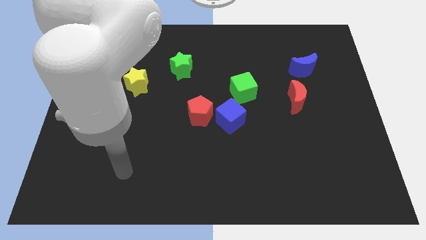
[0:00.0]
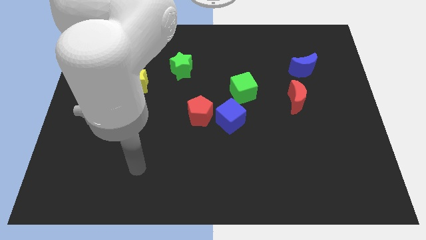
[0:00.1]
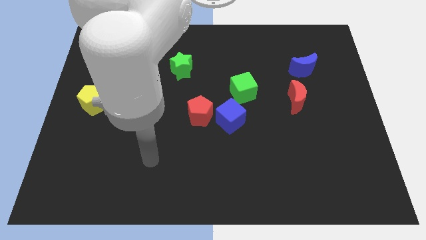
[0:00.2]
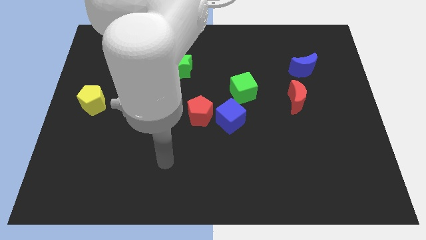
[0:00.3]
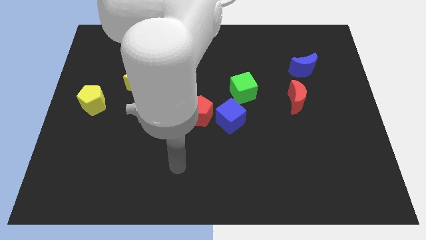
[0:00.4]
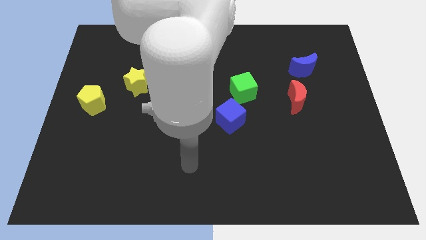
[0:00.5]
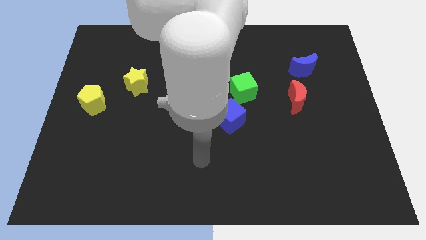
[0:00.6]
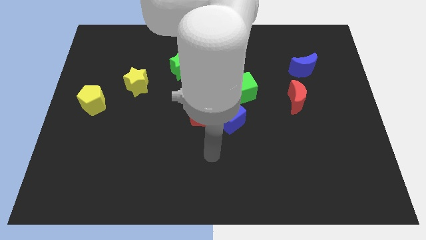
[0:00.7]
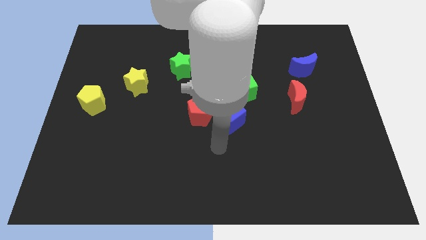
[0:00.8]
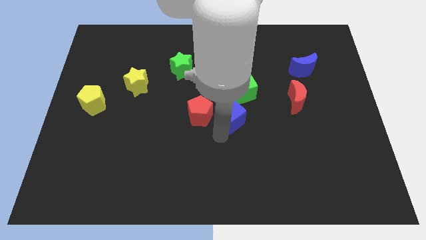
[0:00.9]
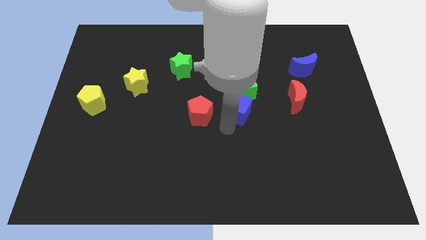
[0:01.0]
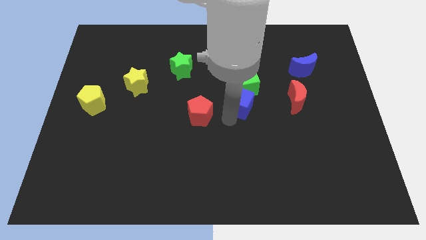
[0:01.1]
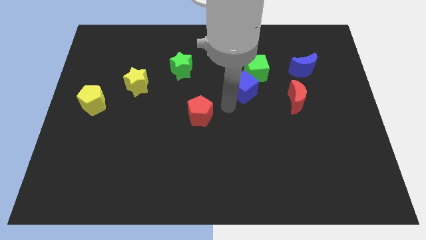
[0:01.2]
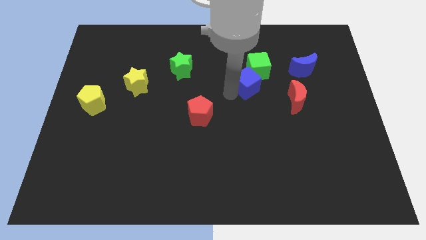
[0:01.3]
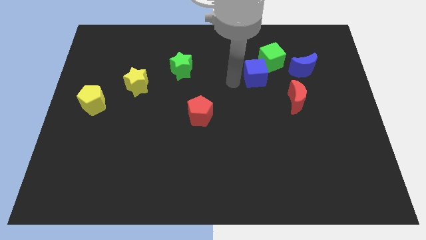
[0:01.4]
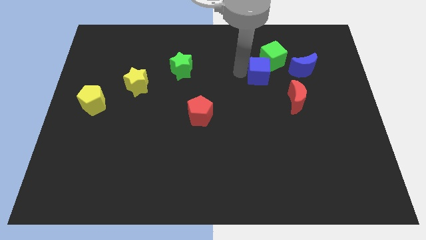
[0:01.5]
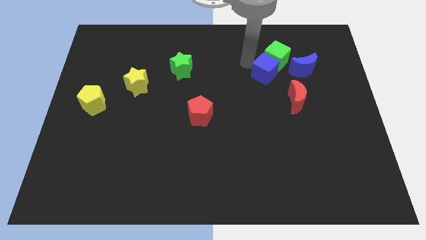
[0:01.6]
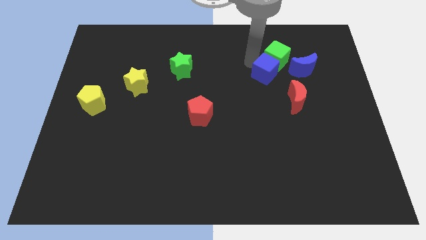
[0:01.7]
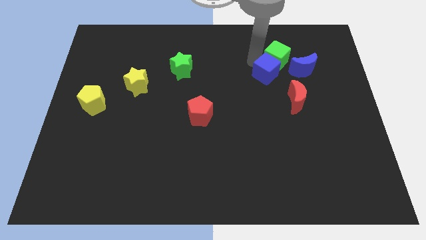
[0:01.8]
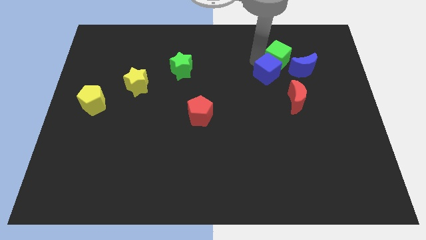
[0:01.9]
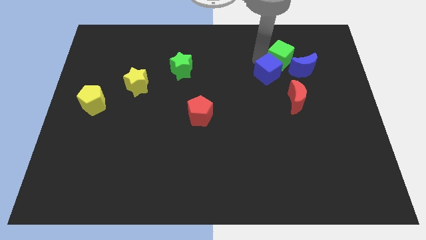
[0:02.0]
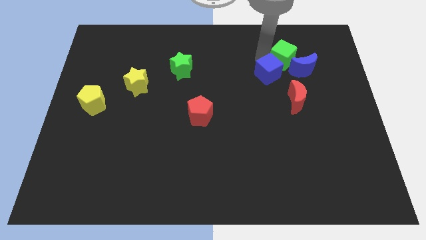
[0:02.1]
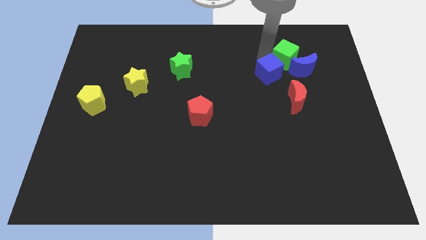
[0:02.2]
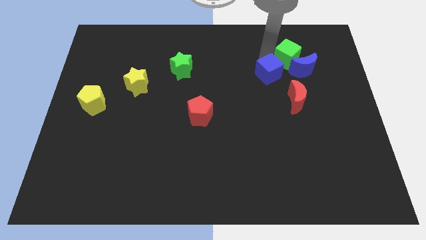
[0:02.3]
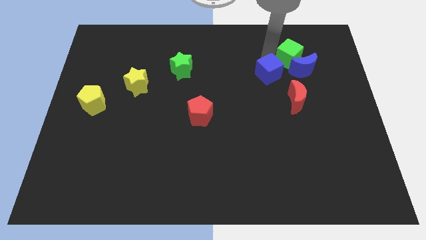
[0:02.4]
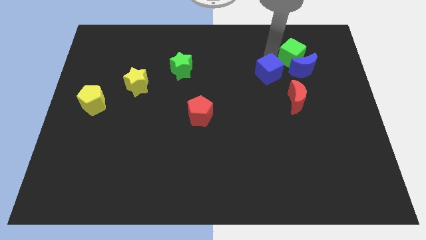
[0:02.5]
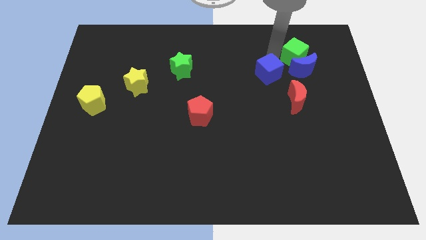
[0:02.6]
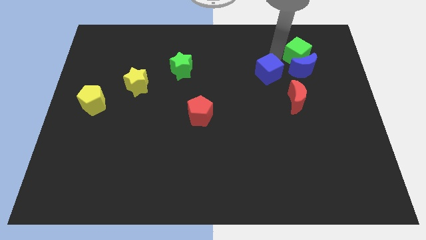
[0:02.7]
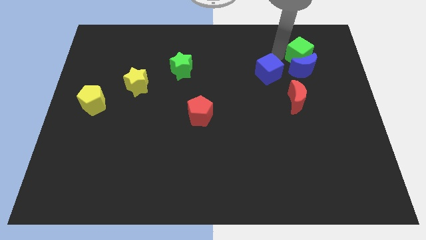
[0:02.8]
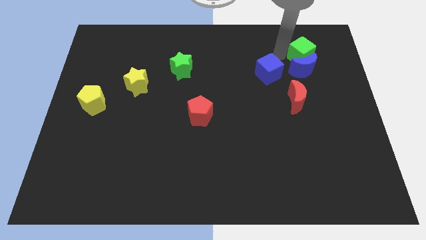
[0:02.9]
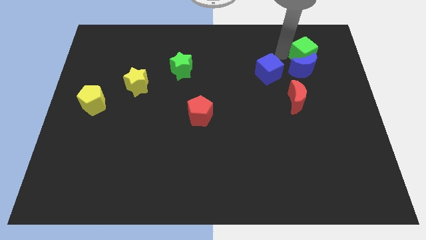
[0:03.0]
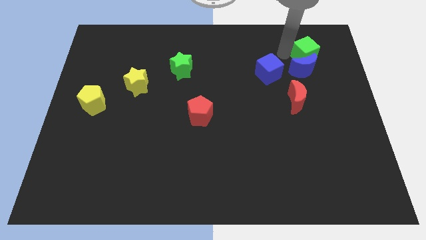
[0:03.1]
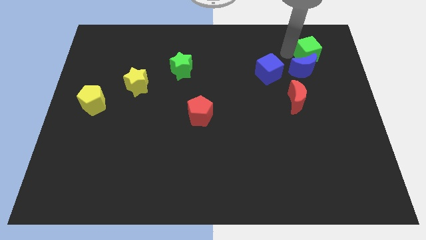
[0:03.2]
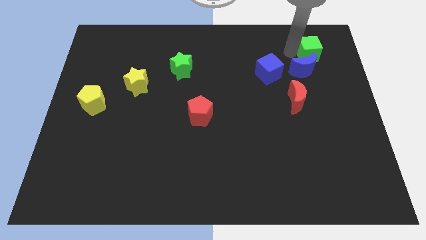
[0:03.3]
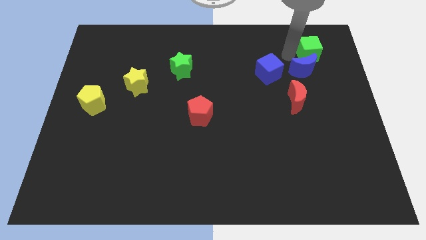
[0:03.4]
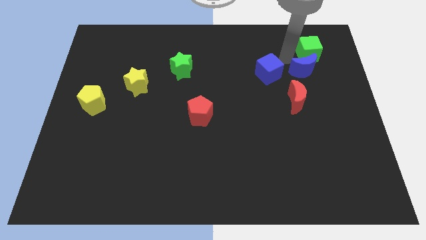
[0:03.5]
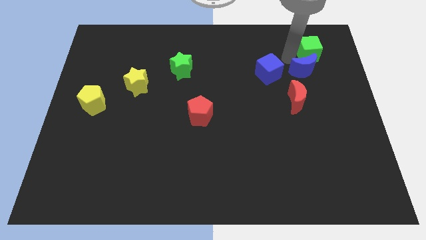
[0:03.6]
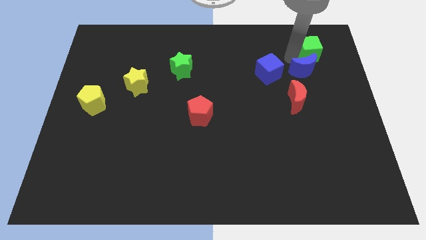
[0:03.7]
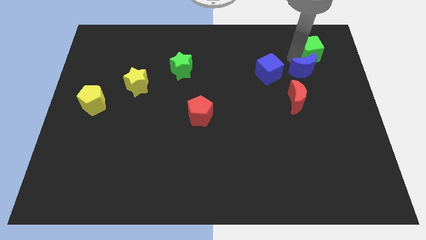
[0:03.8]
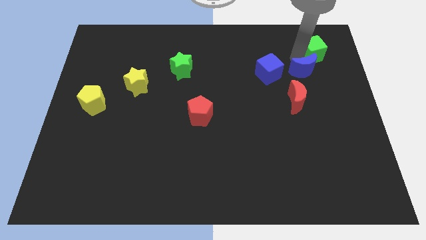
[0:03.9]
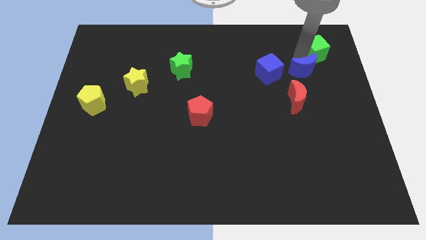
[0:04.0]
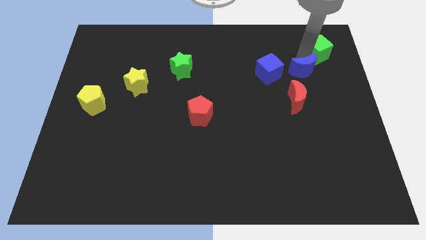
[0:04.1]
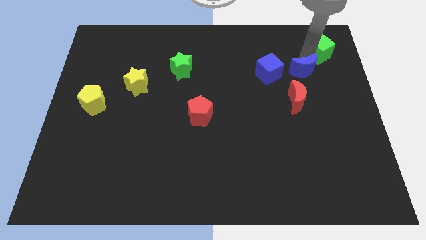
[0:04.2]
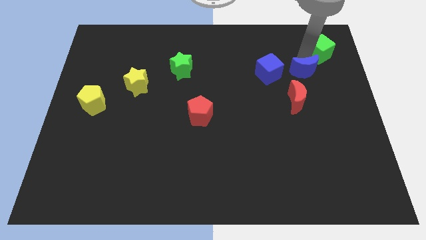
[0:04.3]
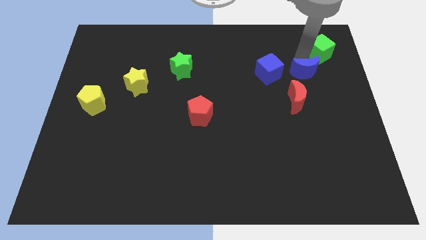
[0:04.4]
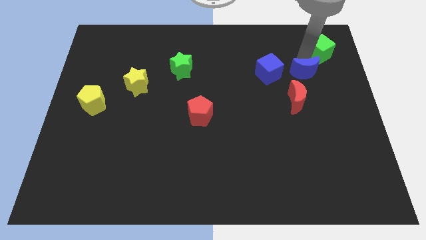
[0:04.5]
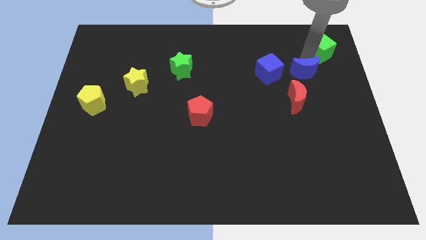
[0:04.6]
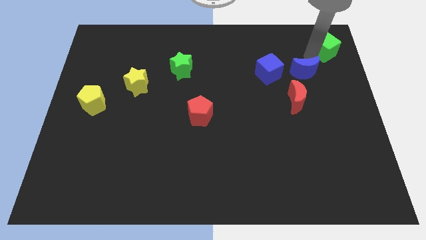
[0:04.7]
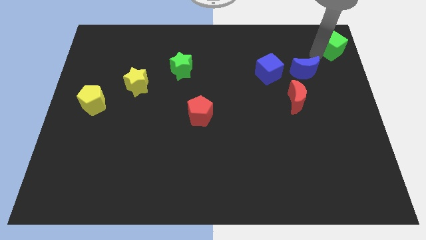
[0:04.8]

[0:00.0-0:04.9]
move the green cube to the upper right corner

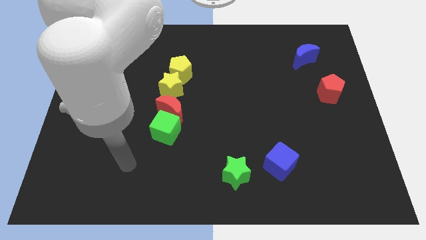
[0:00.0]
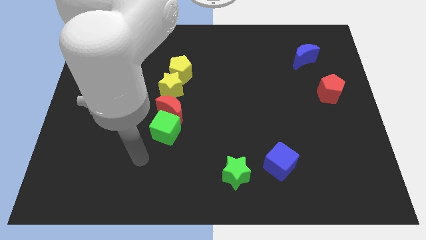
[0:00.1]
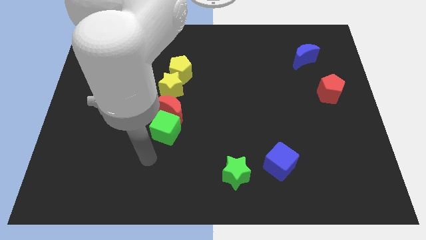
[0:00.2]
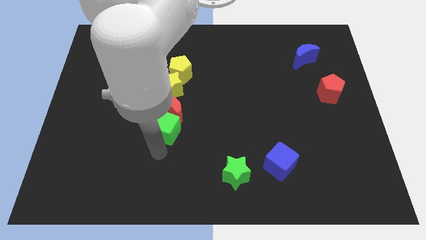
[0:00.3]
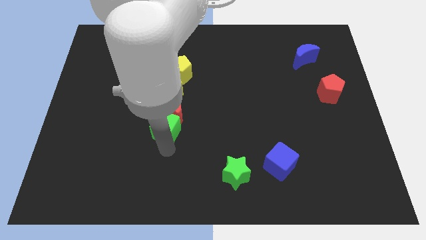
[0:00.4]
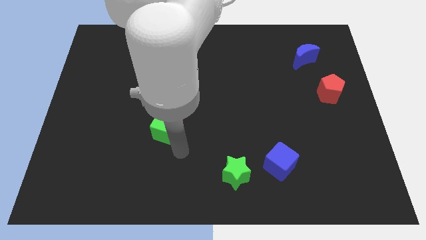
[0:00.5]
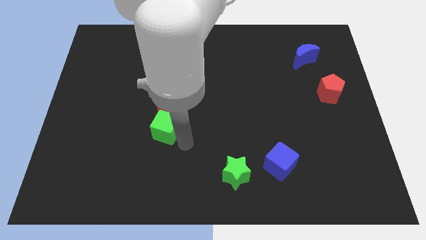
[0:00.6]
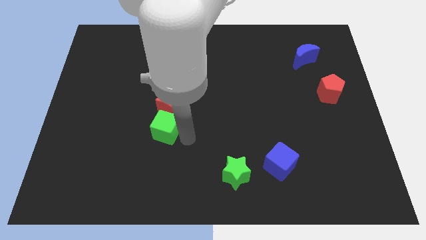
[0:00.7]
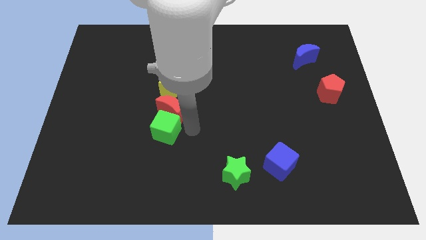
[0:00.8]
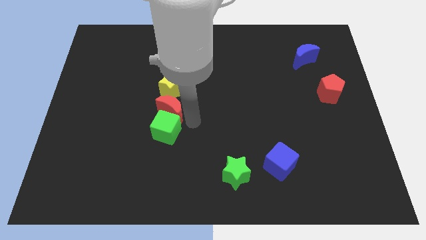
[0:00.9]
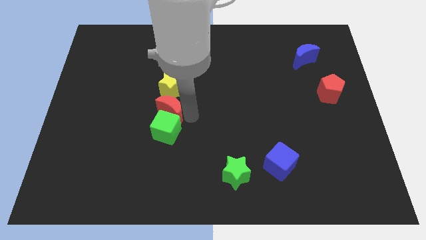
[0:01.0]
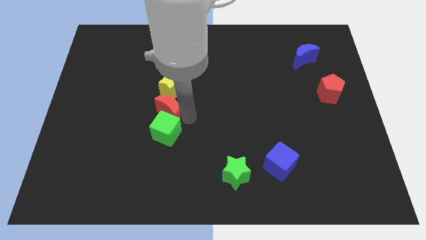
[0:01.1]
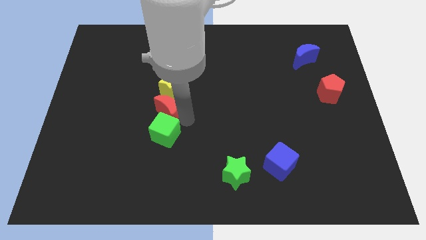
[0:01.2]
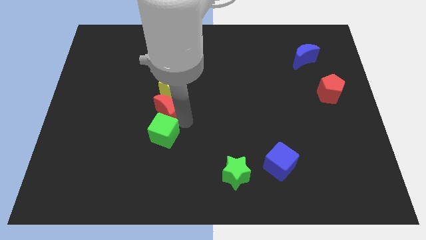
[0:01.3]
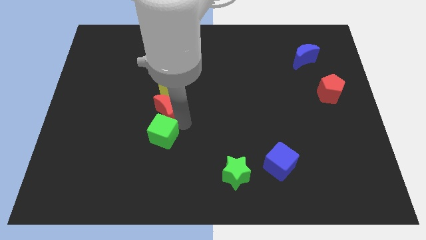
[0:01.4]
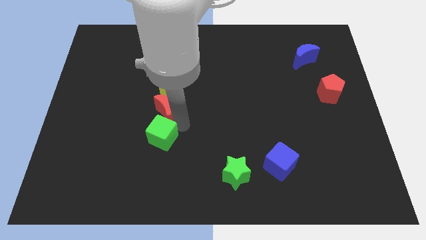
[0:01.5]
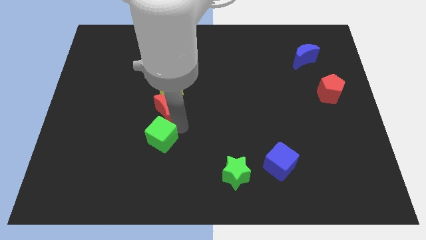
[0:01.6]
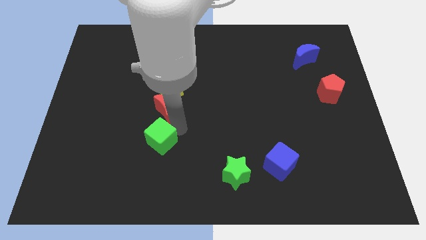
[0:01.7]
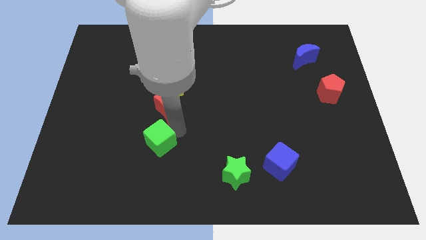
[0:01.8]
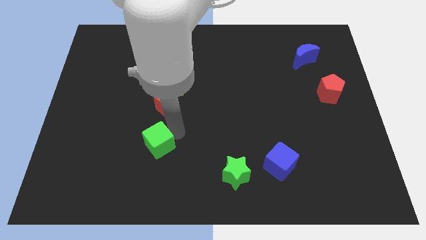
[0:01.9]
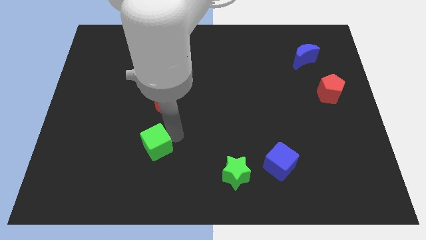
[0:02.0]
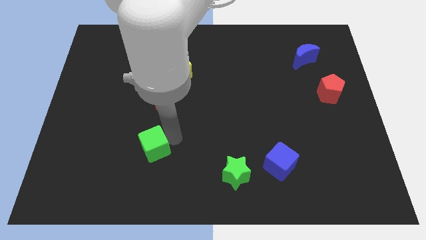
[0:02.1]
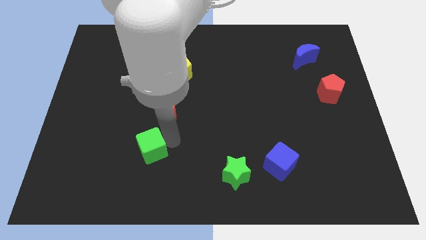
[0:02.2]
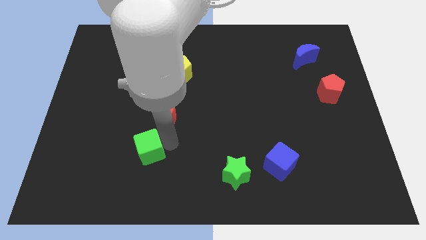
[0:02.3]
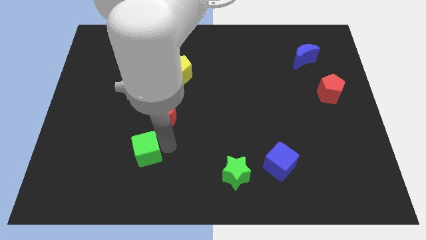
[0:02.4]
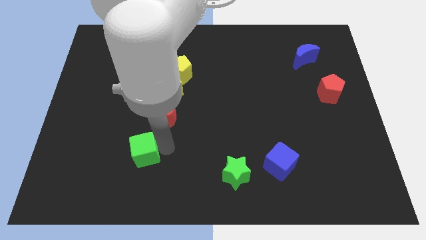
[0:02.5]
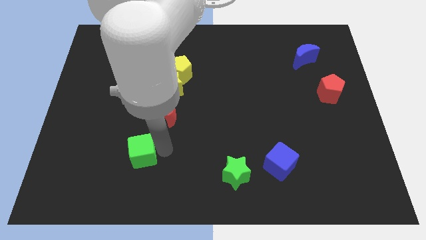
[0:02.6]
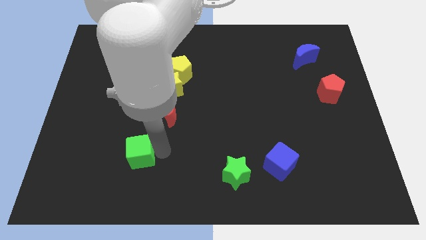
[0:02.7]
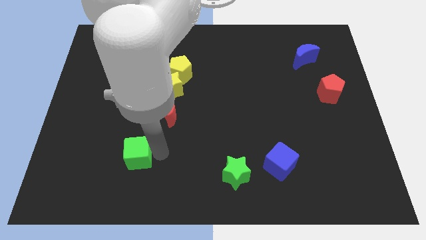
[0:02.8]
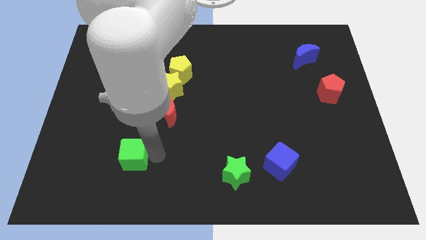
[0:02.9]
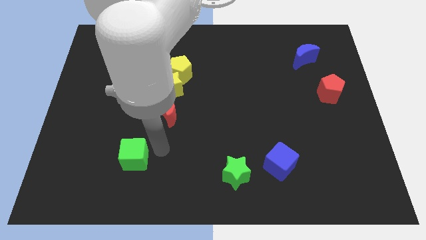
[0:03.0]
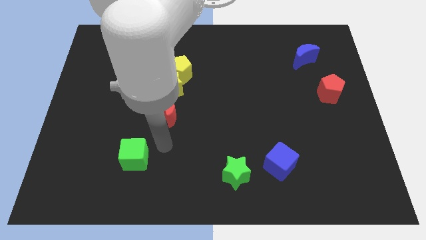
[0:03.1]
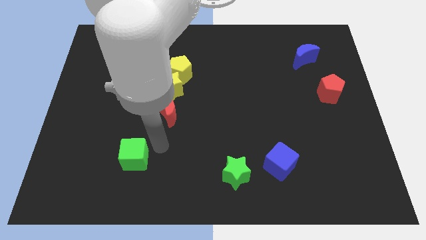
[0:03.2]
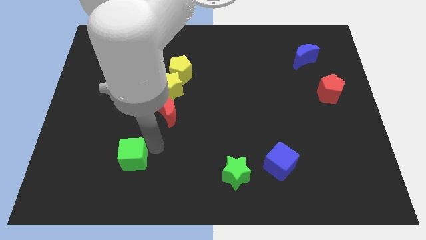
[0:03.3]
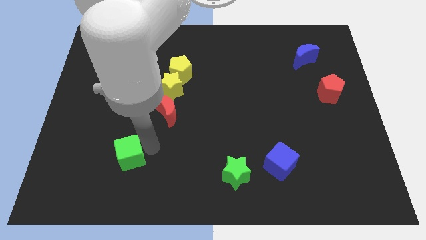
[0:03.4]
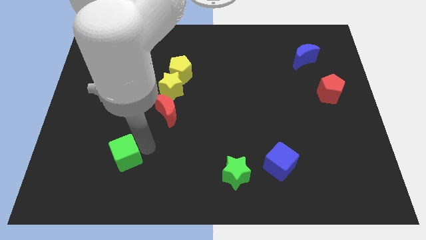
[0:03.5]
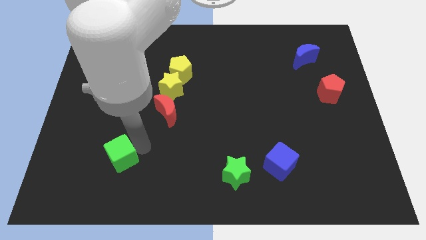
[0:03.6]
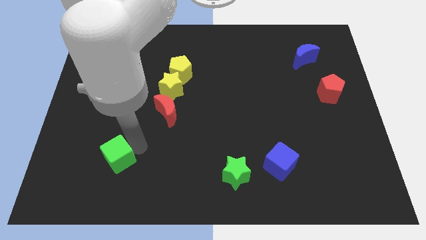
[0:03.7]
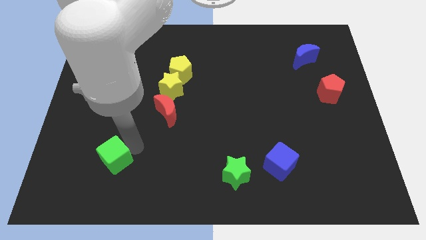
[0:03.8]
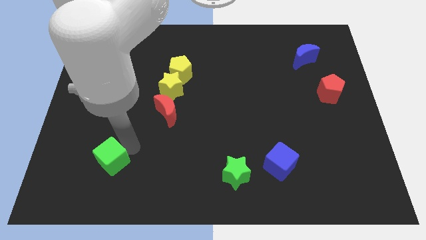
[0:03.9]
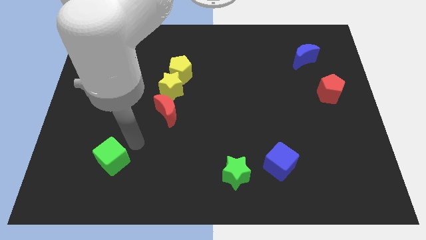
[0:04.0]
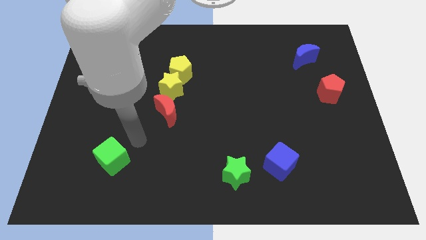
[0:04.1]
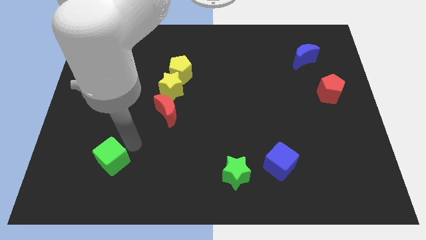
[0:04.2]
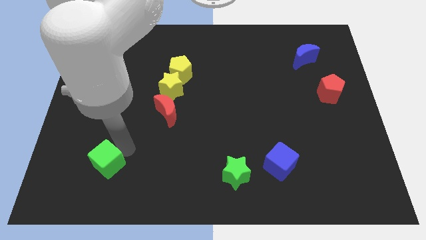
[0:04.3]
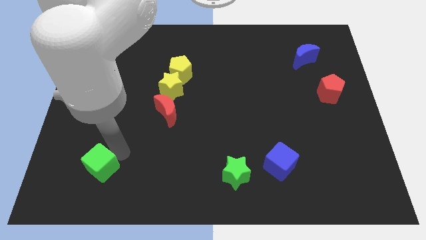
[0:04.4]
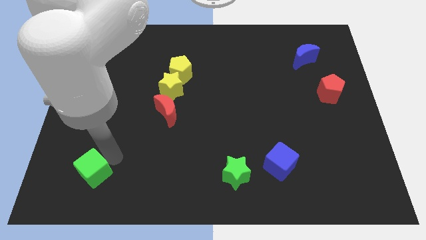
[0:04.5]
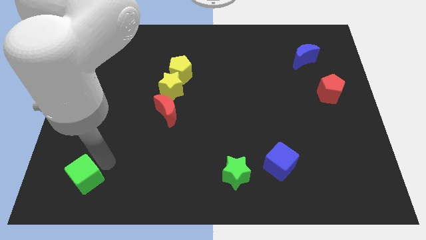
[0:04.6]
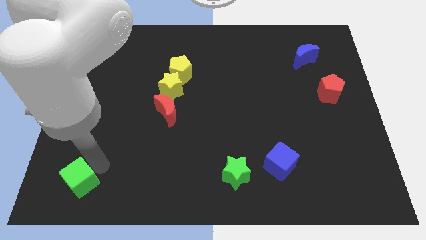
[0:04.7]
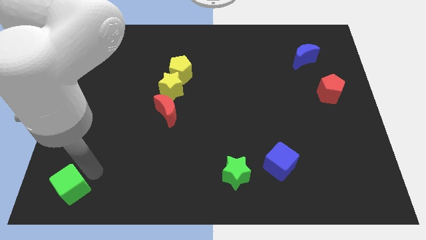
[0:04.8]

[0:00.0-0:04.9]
put the green cube to the lower left corner
